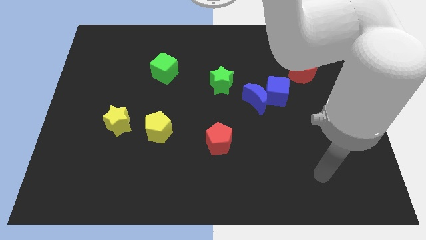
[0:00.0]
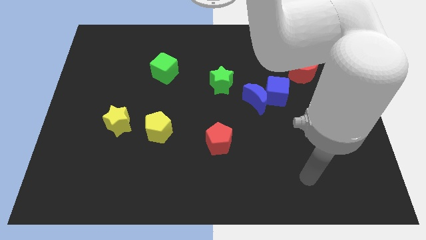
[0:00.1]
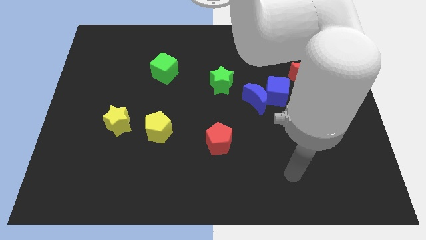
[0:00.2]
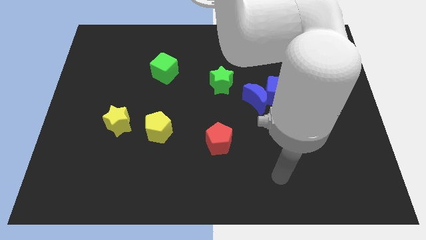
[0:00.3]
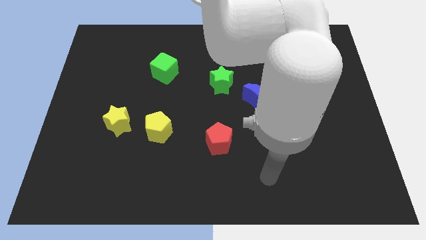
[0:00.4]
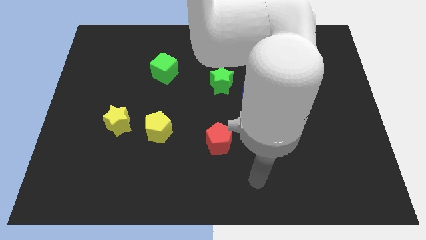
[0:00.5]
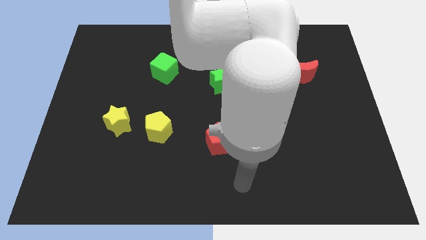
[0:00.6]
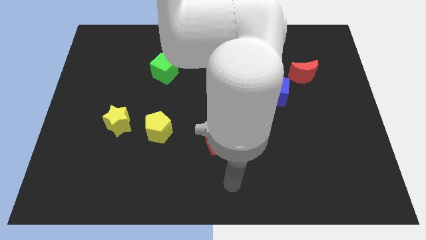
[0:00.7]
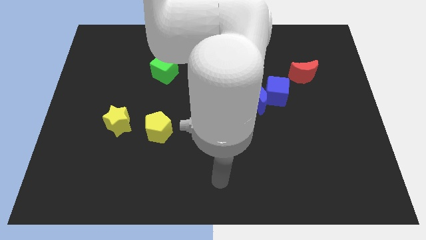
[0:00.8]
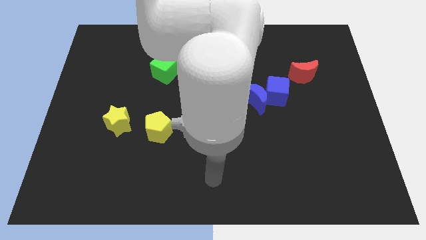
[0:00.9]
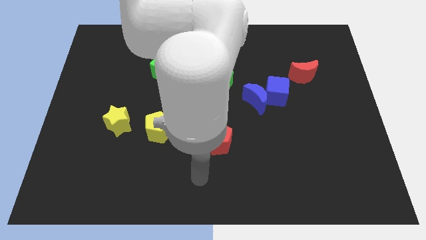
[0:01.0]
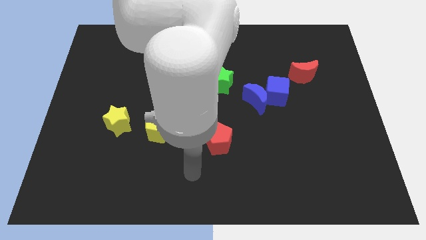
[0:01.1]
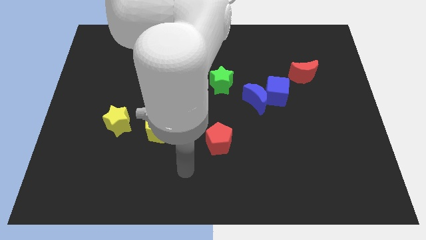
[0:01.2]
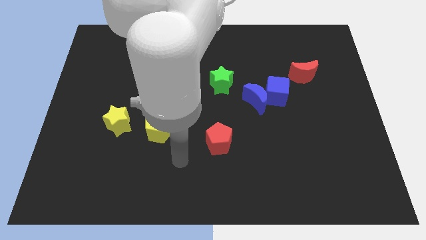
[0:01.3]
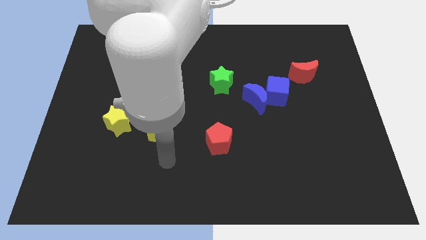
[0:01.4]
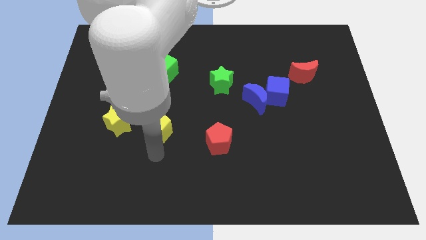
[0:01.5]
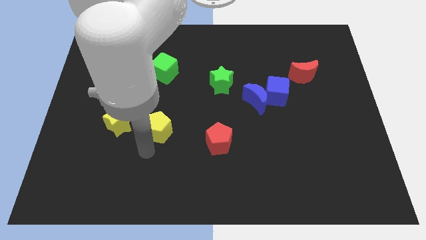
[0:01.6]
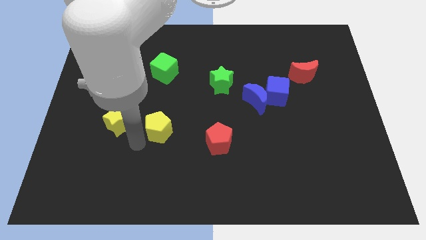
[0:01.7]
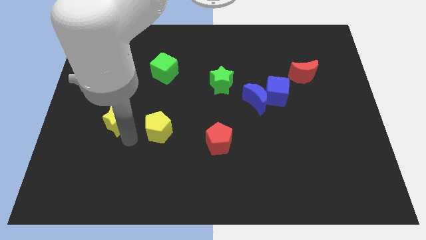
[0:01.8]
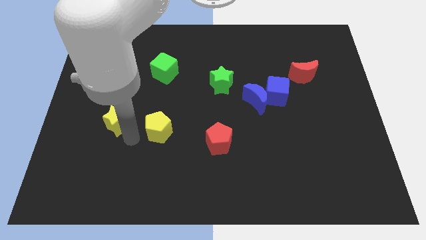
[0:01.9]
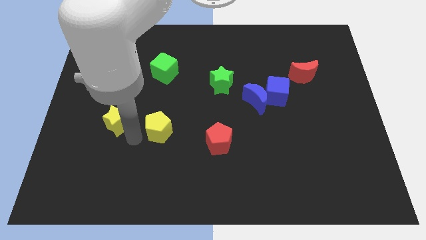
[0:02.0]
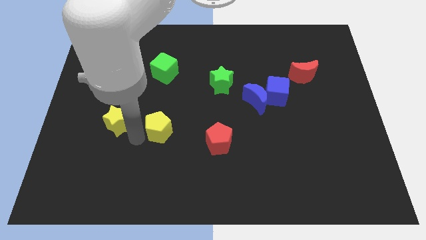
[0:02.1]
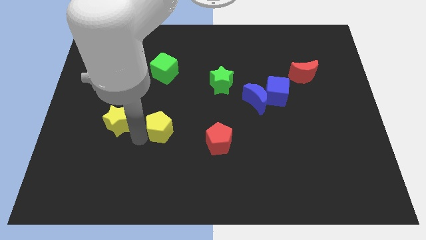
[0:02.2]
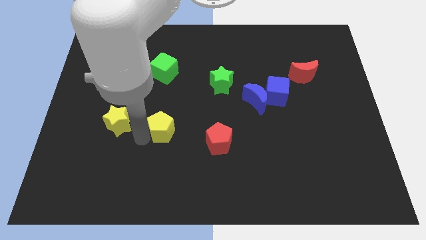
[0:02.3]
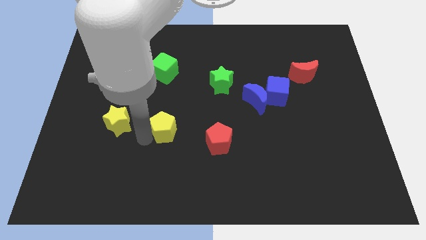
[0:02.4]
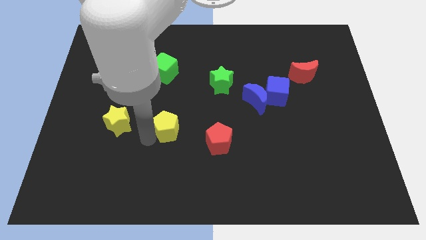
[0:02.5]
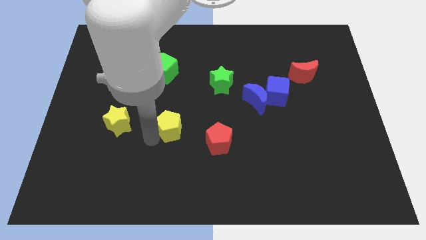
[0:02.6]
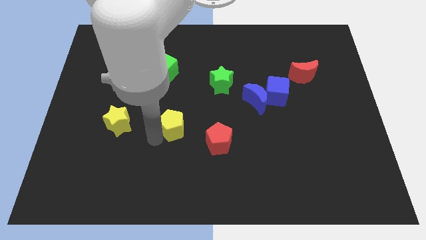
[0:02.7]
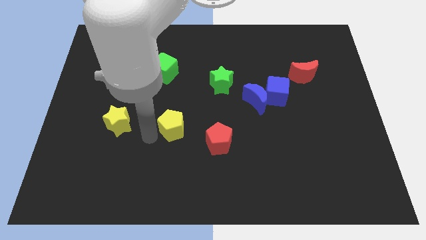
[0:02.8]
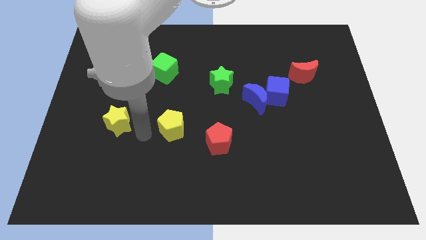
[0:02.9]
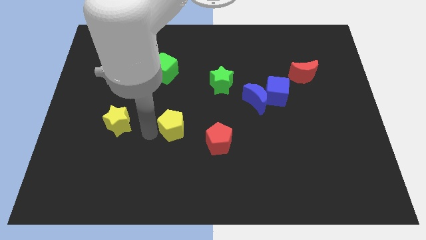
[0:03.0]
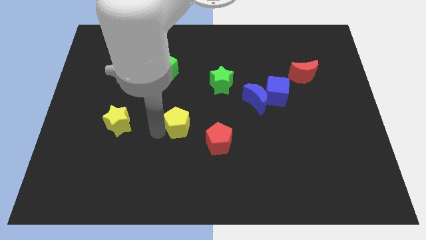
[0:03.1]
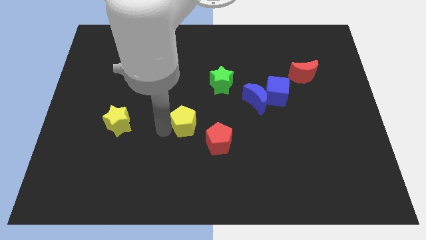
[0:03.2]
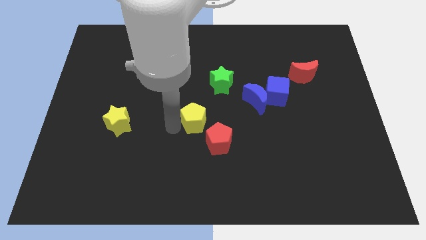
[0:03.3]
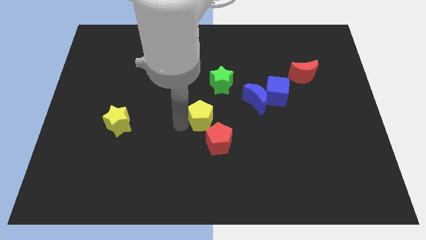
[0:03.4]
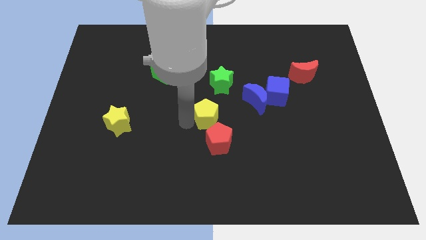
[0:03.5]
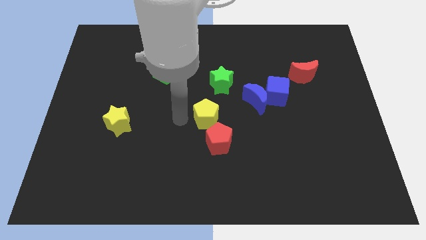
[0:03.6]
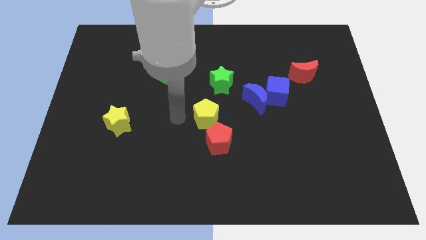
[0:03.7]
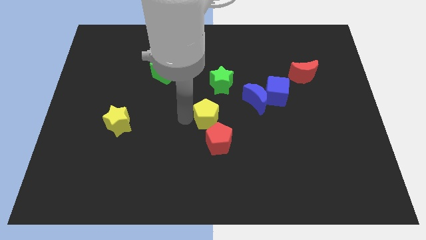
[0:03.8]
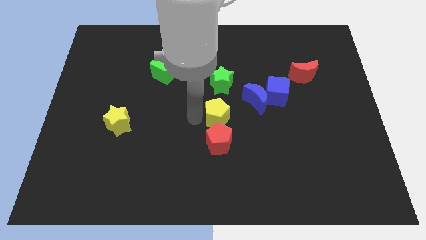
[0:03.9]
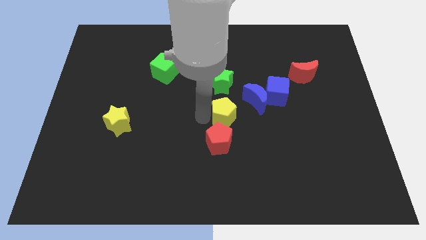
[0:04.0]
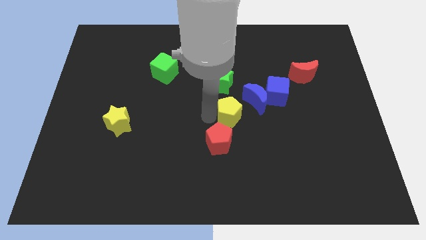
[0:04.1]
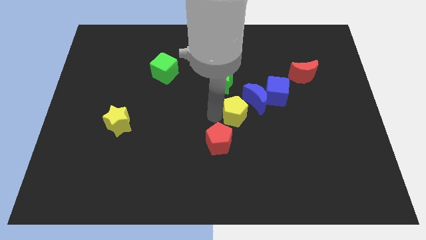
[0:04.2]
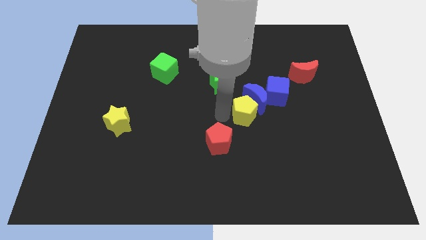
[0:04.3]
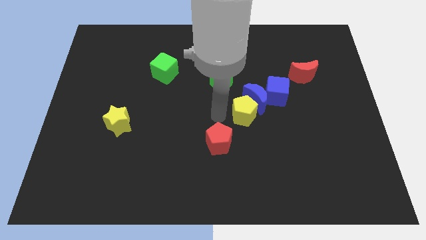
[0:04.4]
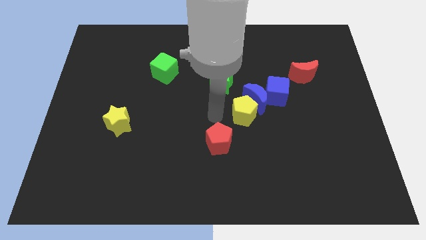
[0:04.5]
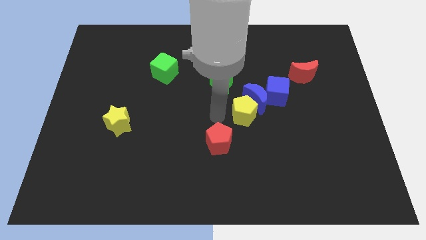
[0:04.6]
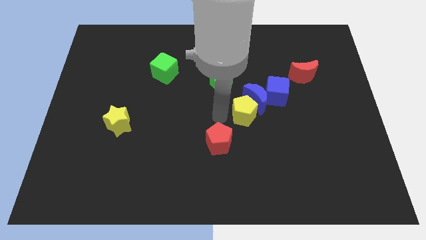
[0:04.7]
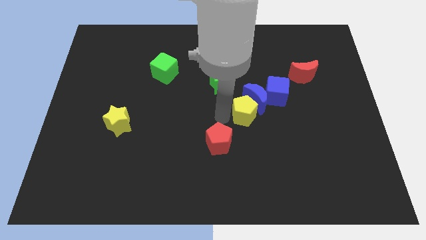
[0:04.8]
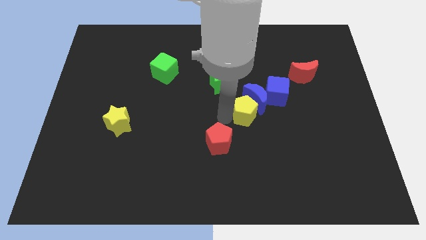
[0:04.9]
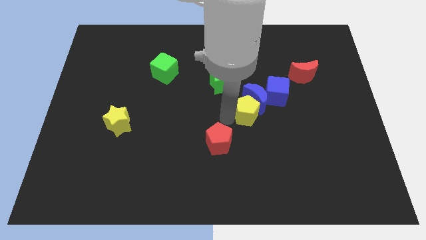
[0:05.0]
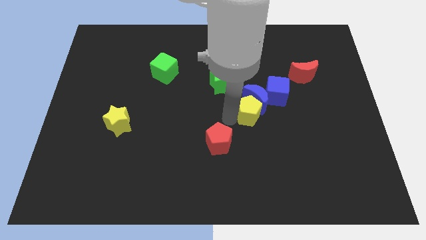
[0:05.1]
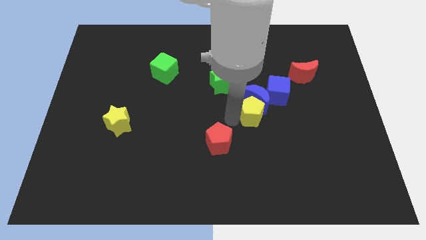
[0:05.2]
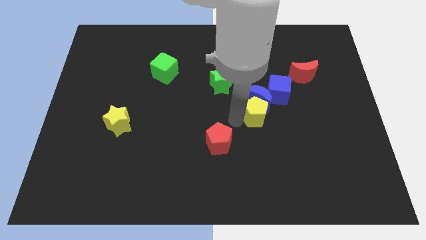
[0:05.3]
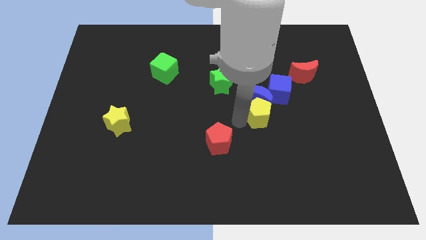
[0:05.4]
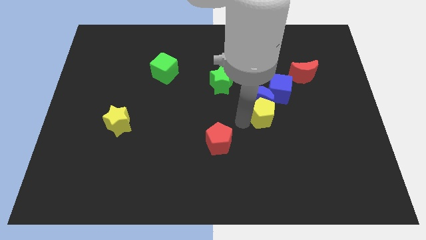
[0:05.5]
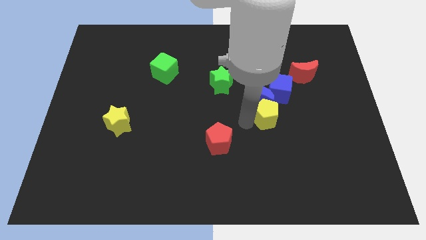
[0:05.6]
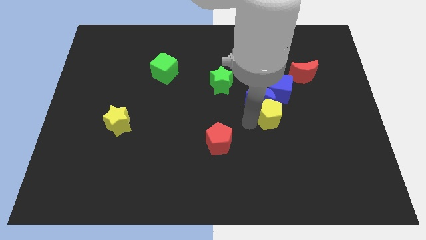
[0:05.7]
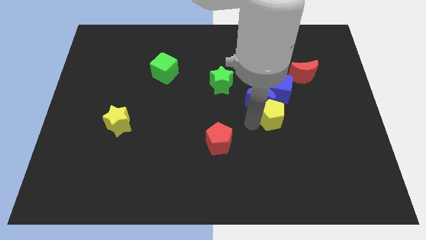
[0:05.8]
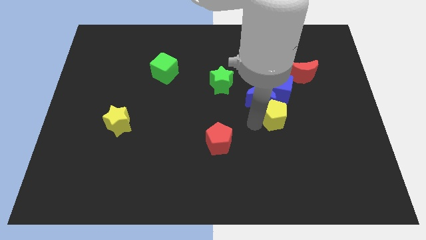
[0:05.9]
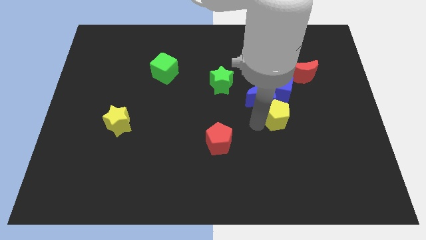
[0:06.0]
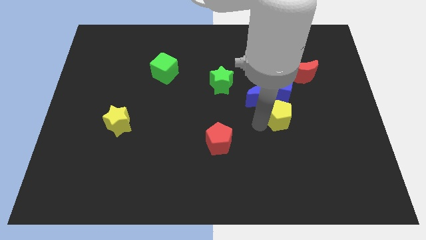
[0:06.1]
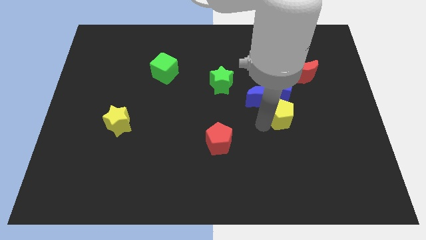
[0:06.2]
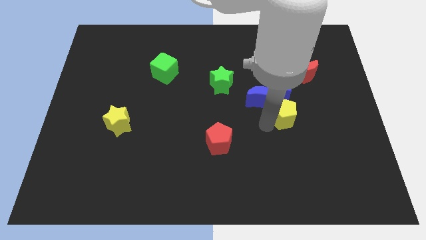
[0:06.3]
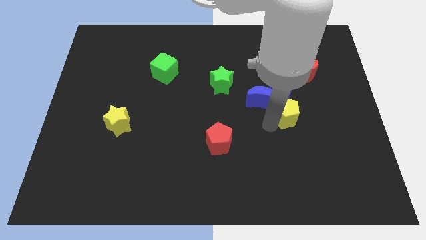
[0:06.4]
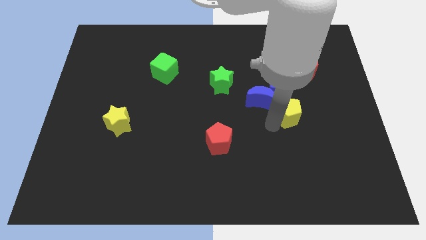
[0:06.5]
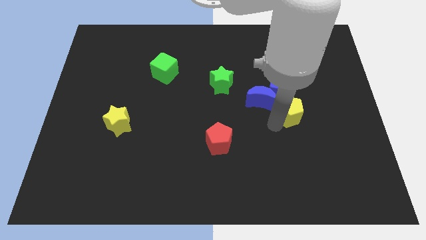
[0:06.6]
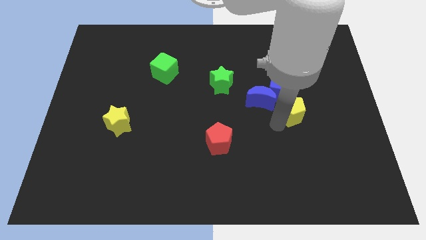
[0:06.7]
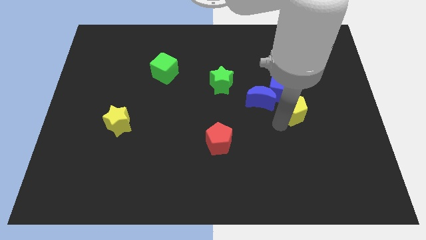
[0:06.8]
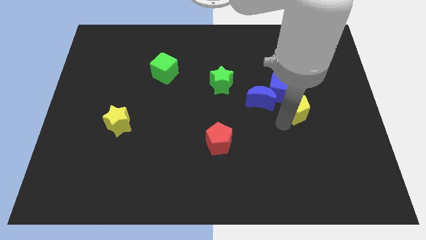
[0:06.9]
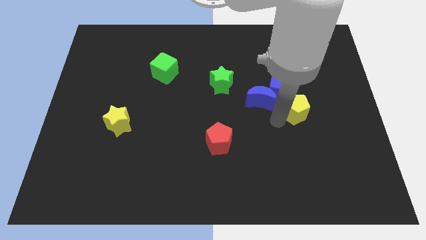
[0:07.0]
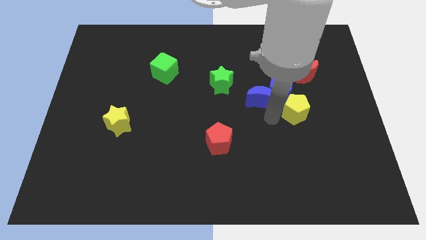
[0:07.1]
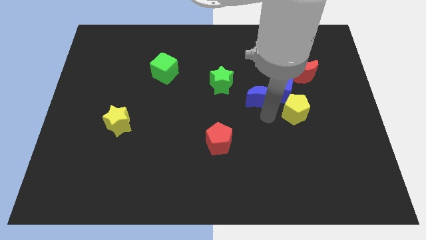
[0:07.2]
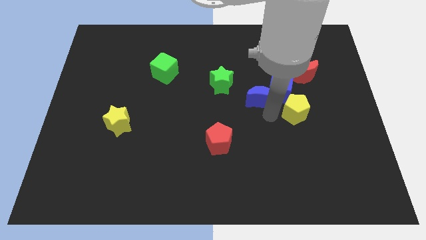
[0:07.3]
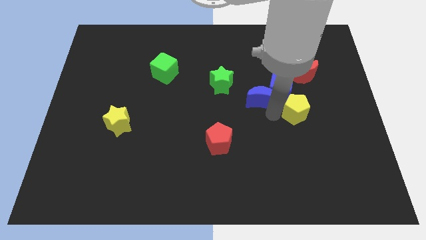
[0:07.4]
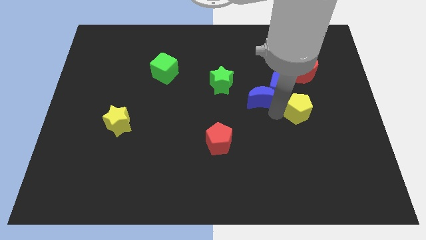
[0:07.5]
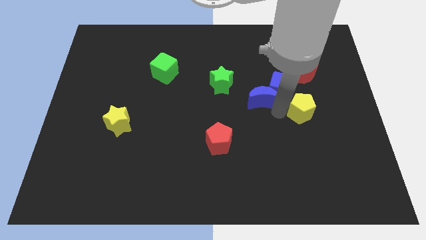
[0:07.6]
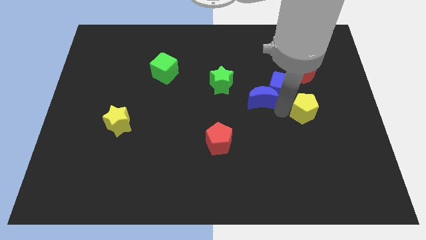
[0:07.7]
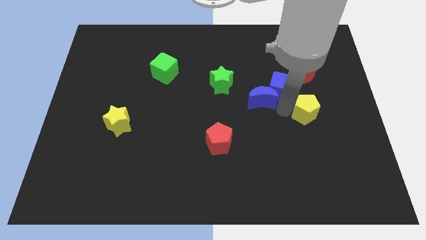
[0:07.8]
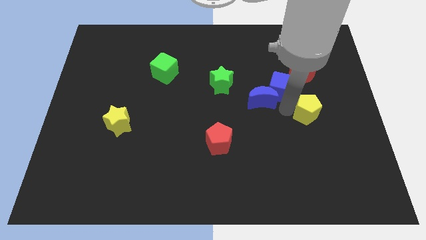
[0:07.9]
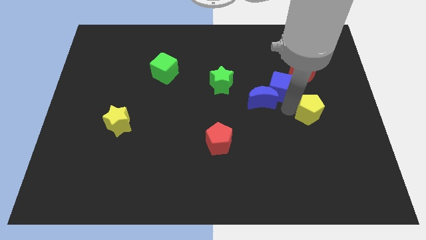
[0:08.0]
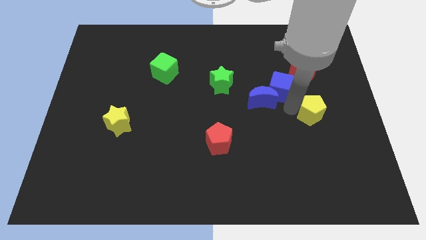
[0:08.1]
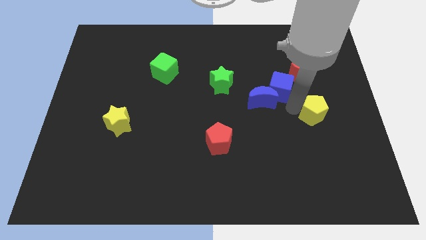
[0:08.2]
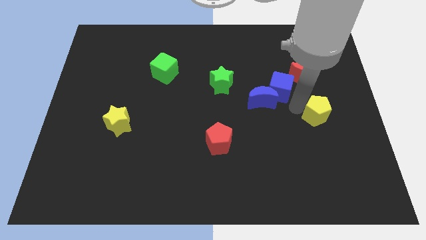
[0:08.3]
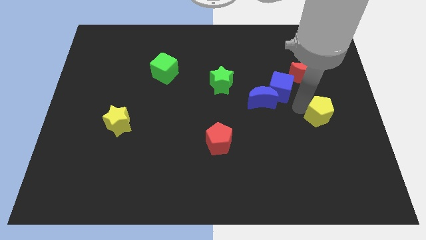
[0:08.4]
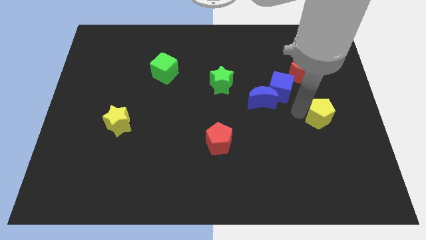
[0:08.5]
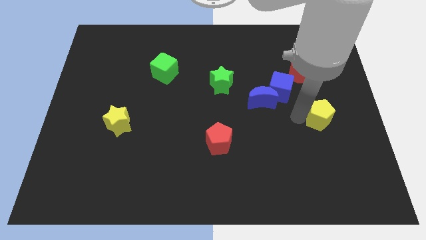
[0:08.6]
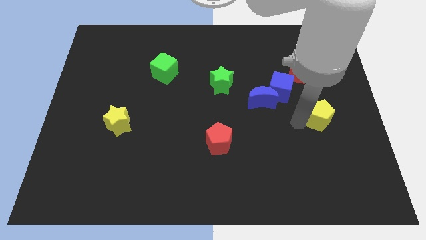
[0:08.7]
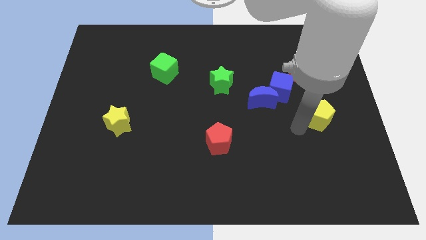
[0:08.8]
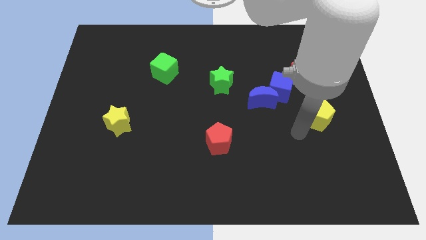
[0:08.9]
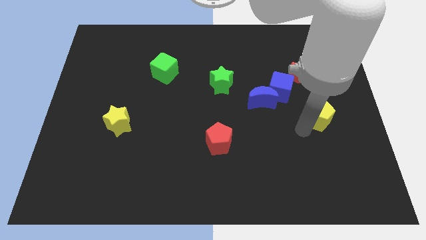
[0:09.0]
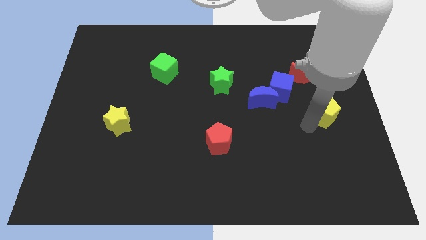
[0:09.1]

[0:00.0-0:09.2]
slide the yellow pentagon to the center right
